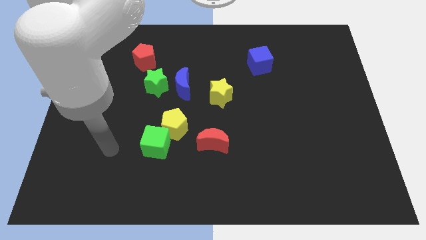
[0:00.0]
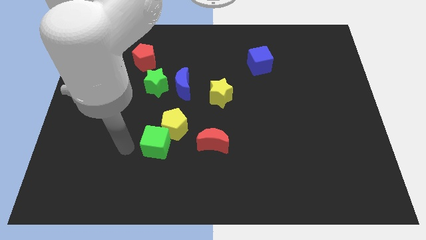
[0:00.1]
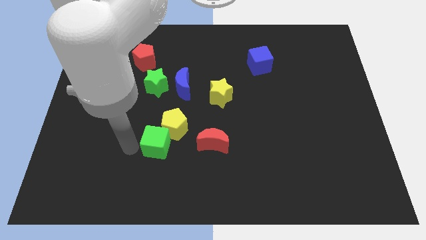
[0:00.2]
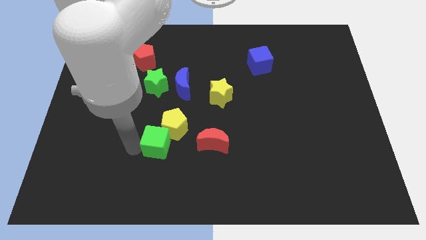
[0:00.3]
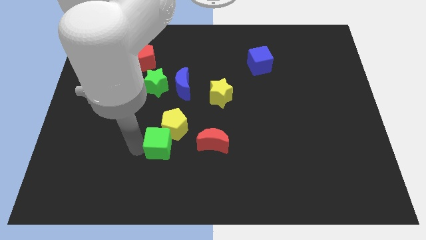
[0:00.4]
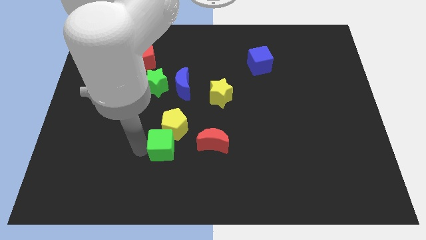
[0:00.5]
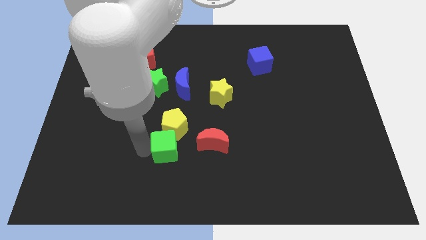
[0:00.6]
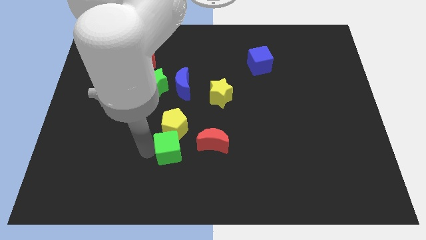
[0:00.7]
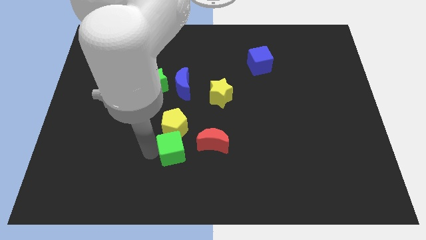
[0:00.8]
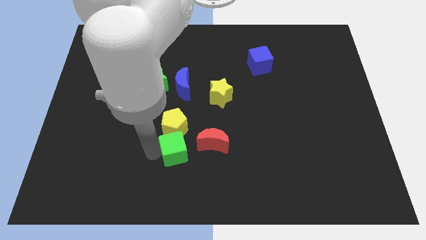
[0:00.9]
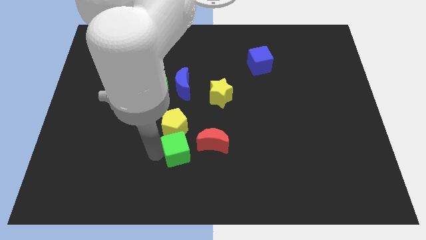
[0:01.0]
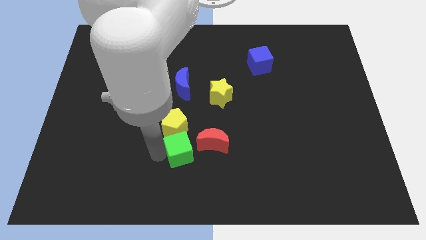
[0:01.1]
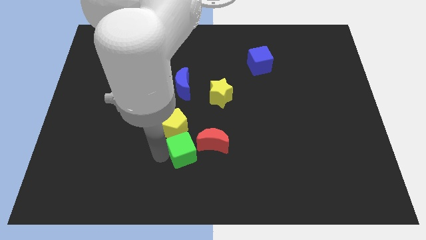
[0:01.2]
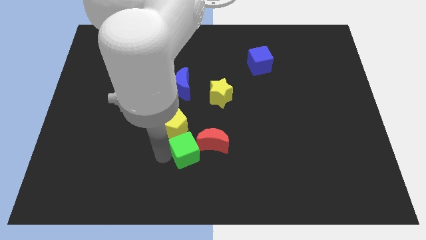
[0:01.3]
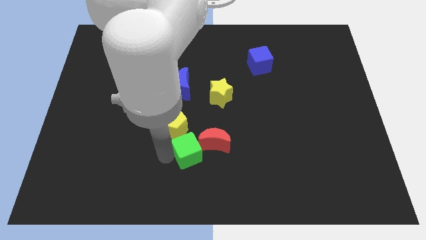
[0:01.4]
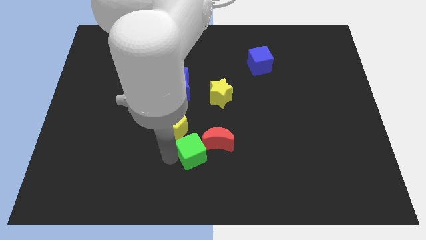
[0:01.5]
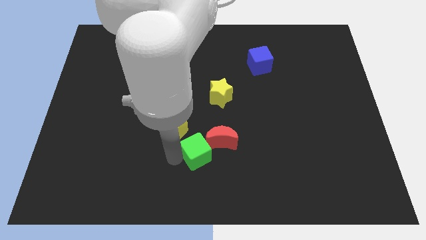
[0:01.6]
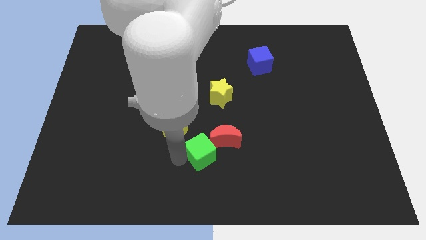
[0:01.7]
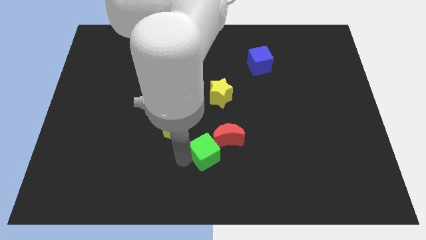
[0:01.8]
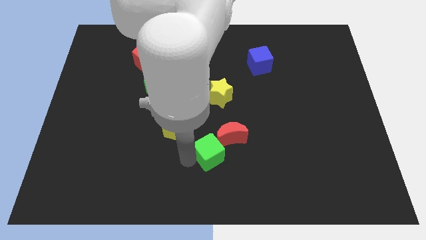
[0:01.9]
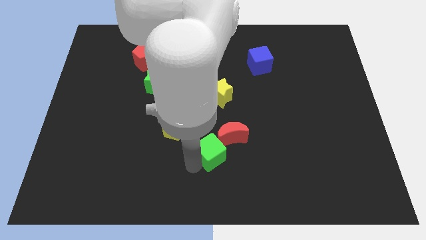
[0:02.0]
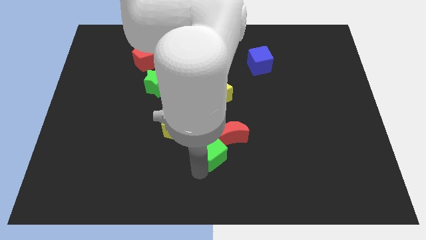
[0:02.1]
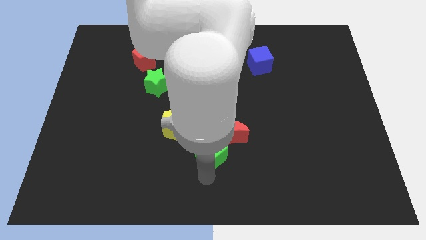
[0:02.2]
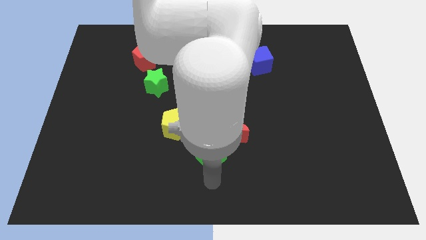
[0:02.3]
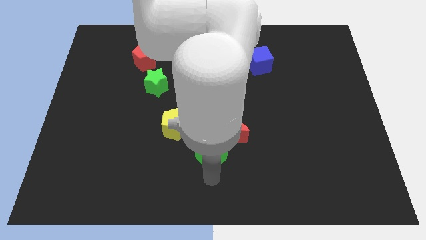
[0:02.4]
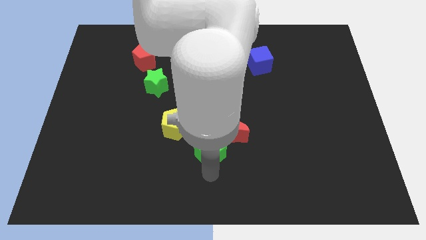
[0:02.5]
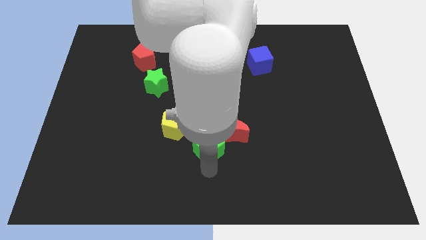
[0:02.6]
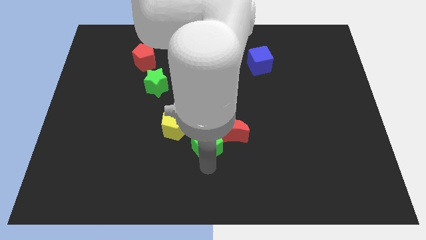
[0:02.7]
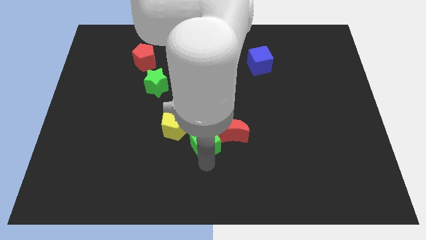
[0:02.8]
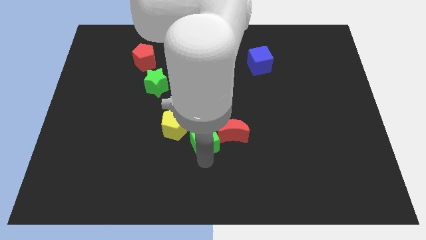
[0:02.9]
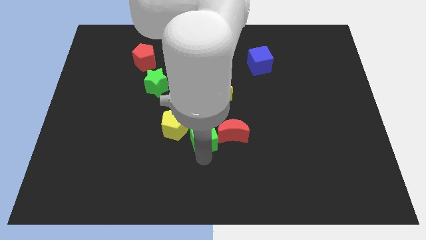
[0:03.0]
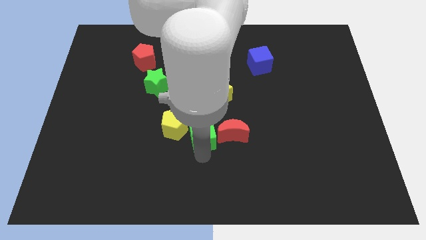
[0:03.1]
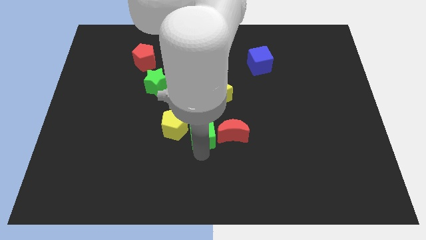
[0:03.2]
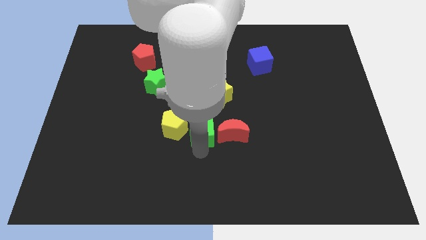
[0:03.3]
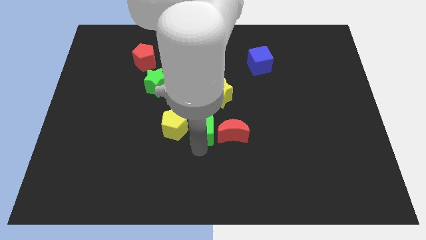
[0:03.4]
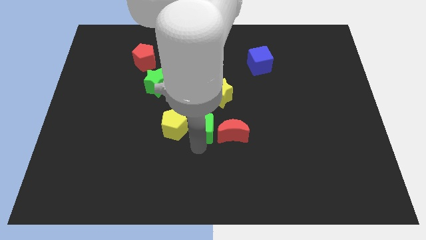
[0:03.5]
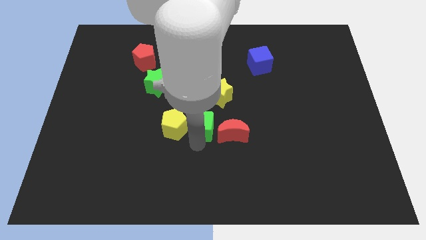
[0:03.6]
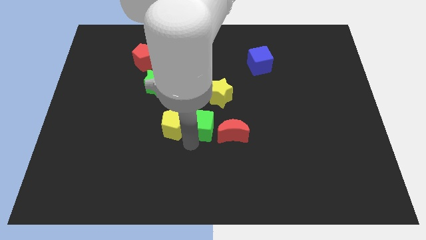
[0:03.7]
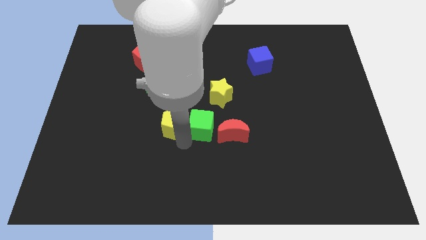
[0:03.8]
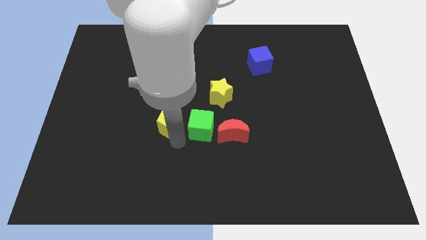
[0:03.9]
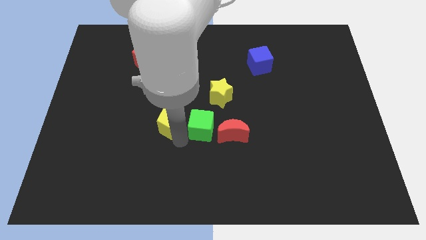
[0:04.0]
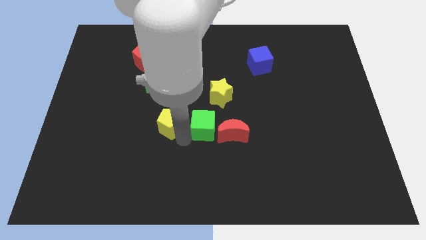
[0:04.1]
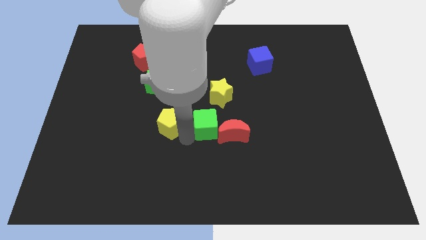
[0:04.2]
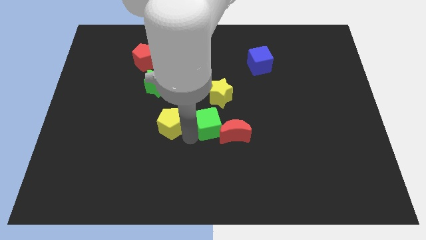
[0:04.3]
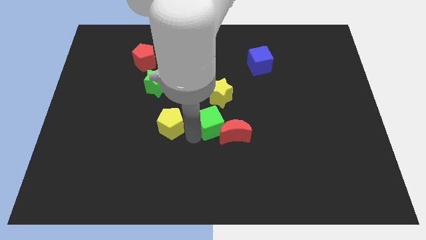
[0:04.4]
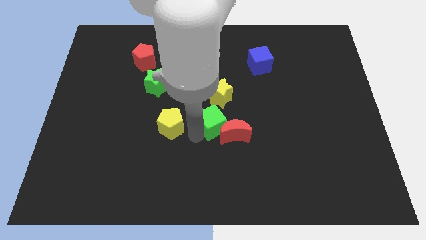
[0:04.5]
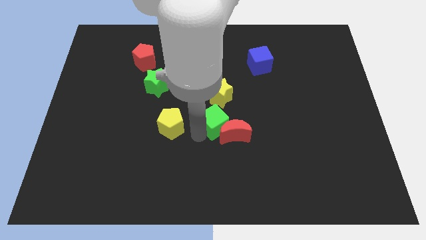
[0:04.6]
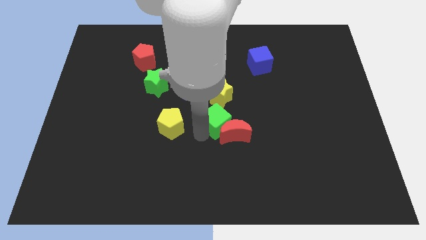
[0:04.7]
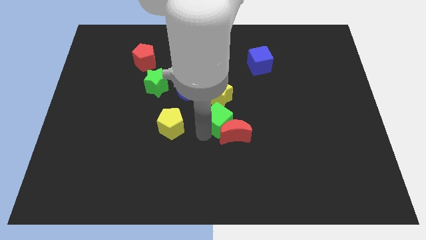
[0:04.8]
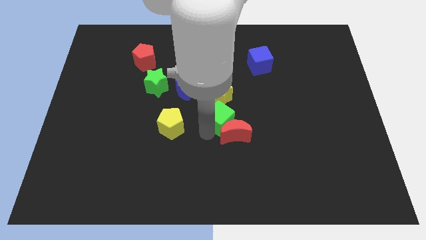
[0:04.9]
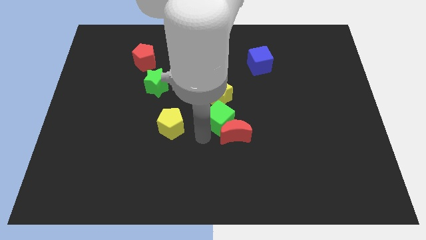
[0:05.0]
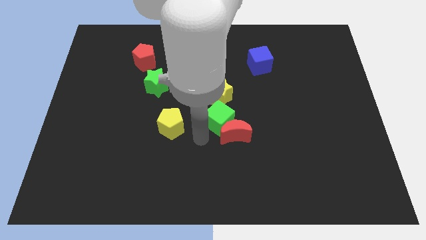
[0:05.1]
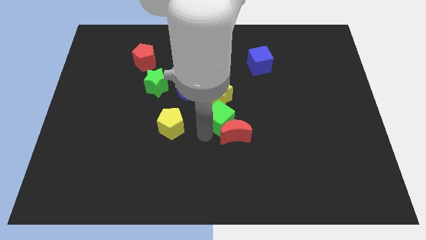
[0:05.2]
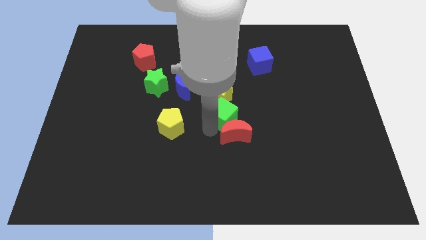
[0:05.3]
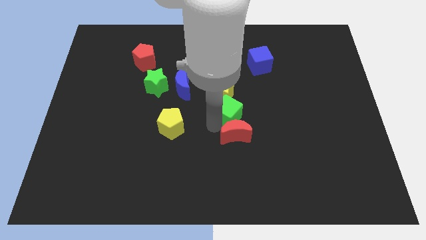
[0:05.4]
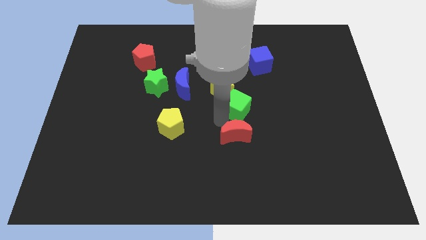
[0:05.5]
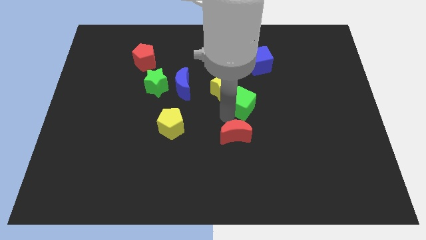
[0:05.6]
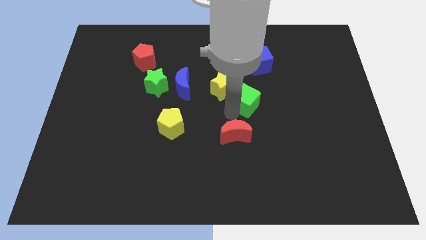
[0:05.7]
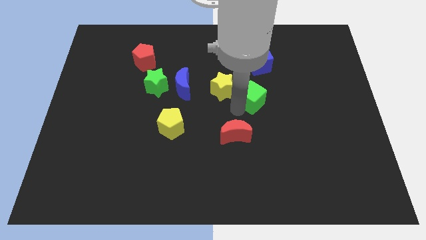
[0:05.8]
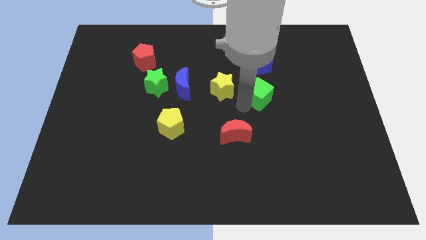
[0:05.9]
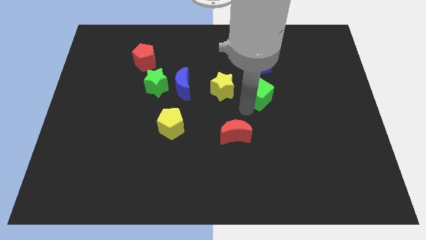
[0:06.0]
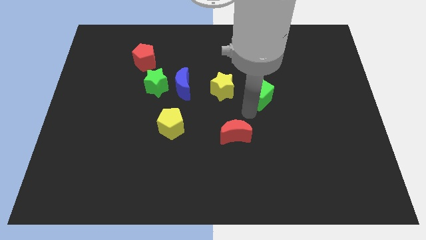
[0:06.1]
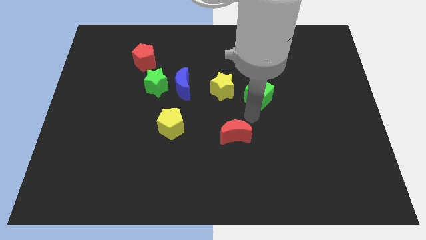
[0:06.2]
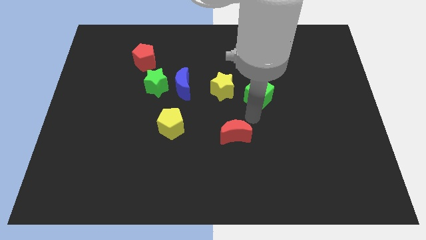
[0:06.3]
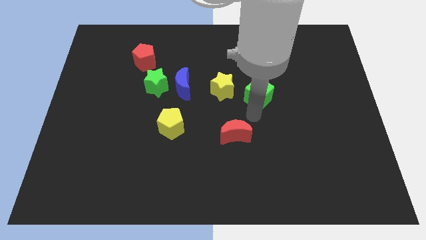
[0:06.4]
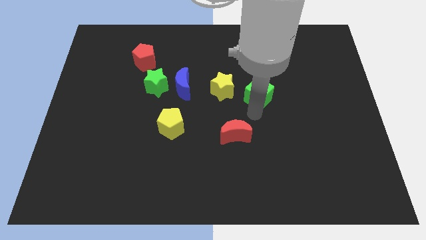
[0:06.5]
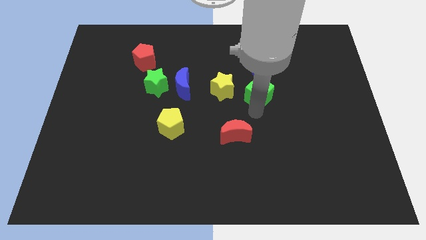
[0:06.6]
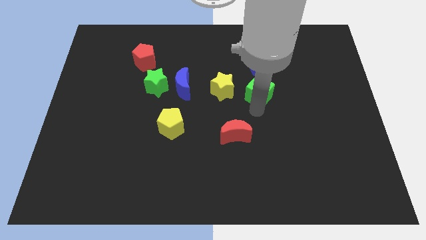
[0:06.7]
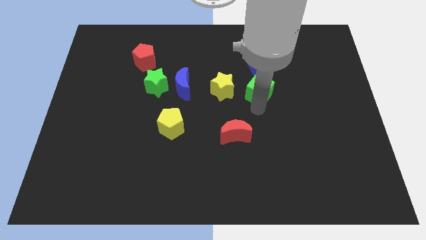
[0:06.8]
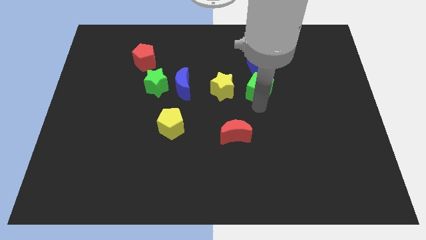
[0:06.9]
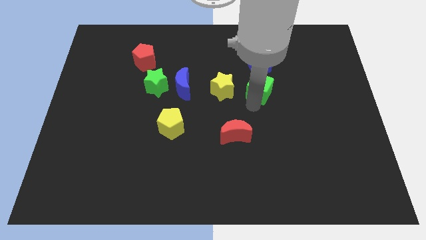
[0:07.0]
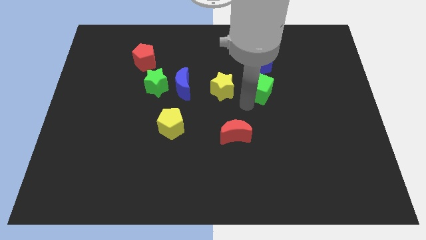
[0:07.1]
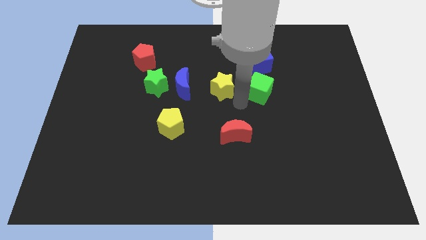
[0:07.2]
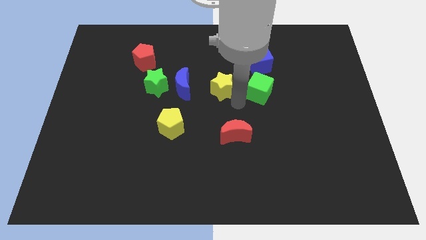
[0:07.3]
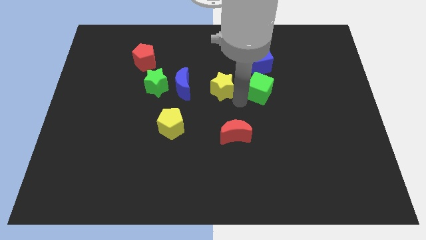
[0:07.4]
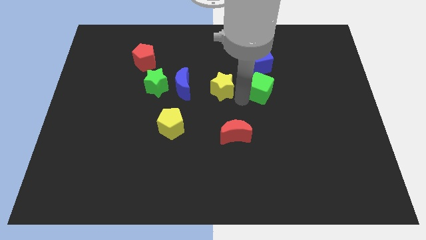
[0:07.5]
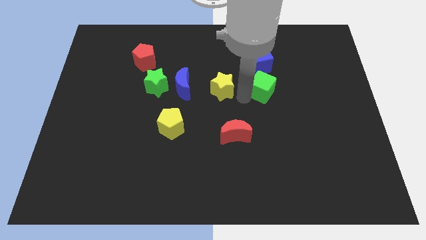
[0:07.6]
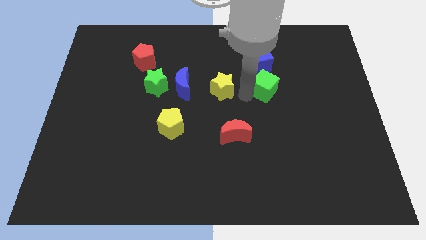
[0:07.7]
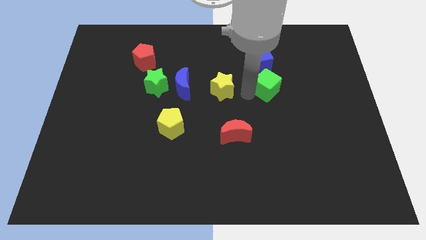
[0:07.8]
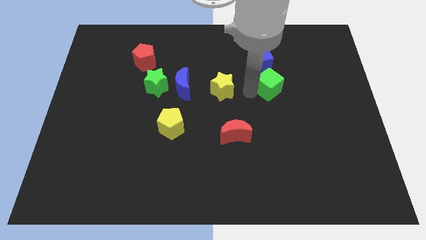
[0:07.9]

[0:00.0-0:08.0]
slide the green cube to the bottom right of the blue cube
